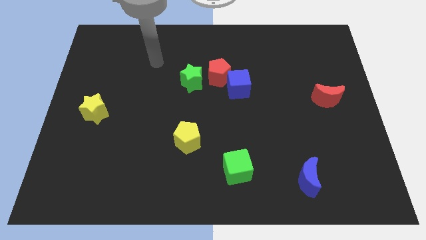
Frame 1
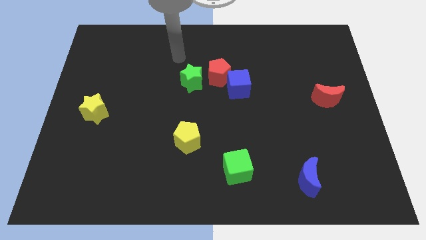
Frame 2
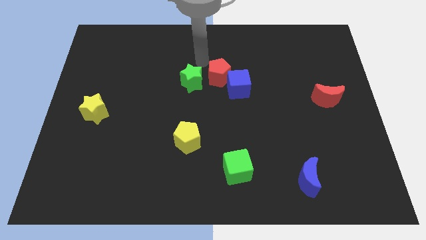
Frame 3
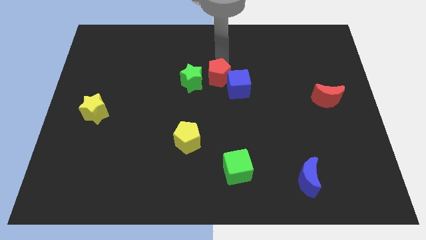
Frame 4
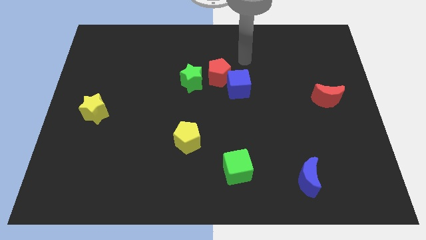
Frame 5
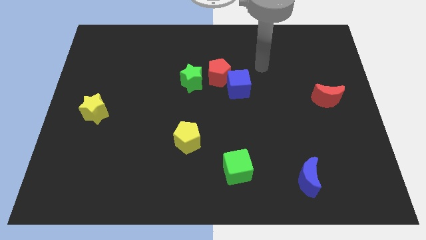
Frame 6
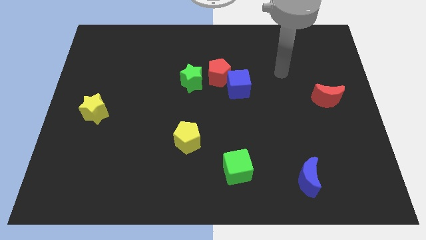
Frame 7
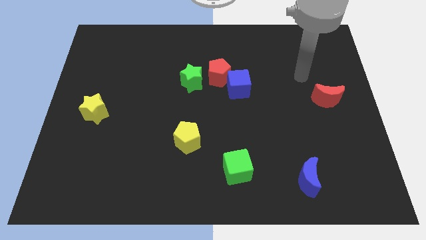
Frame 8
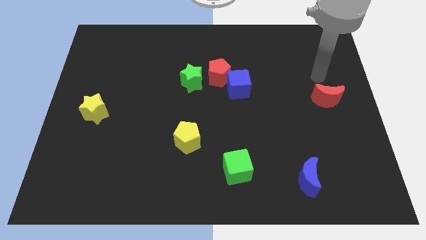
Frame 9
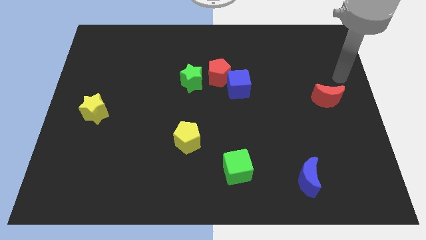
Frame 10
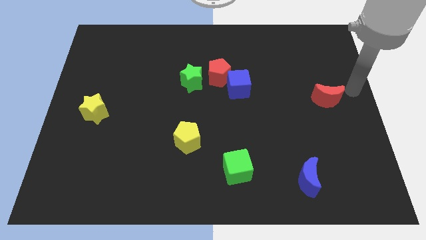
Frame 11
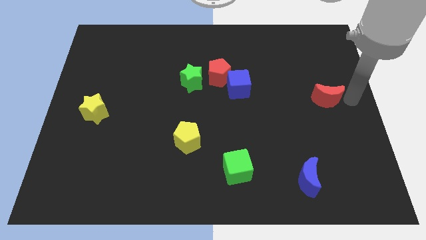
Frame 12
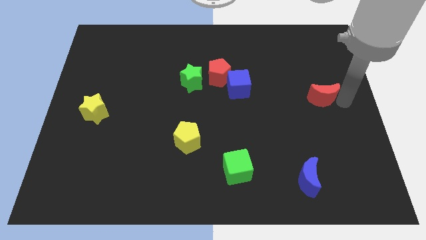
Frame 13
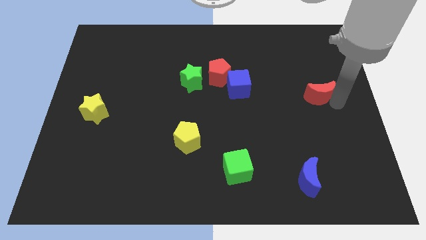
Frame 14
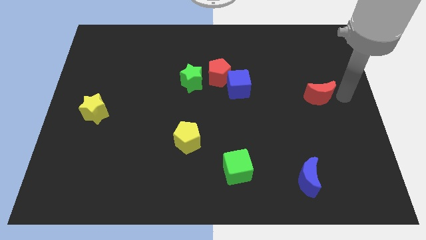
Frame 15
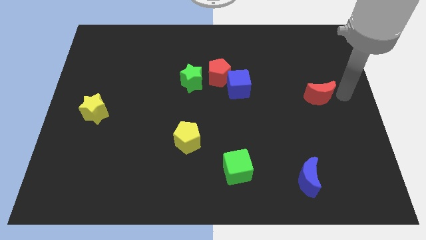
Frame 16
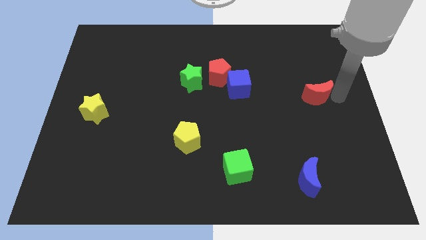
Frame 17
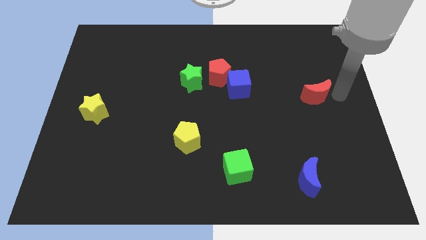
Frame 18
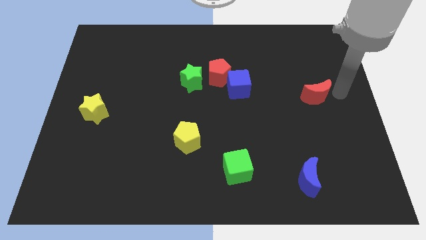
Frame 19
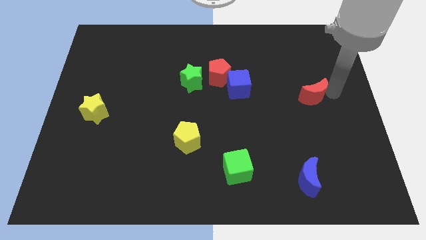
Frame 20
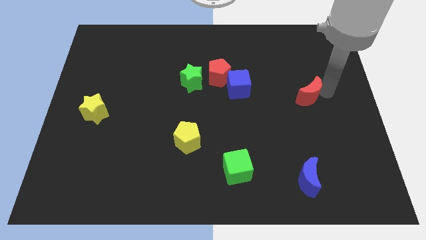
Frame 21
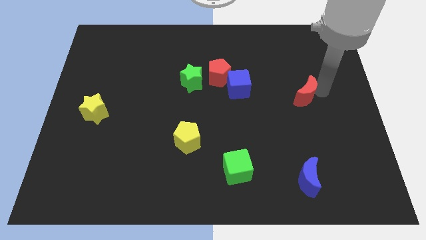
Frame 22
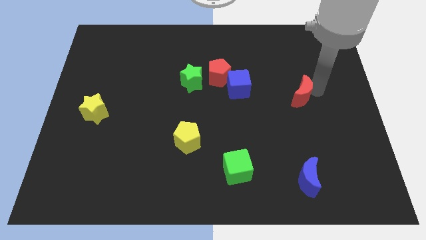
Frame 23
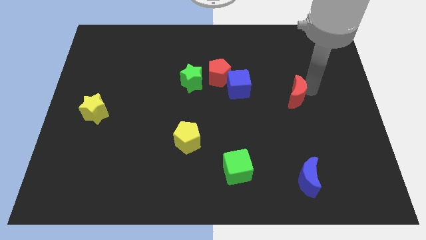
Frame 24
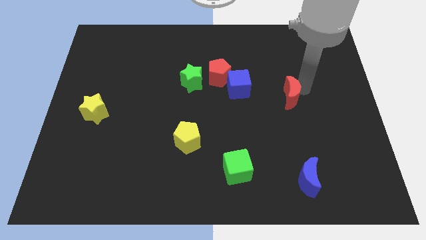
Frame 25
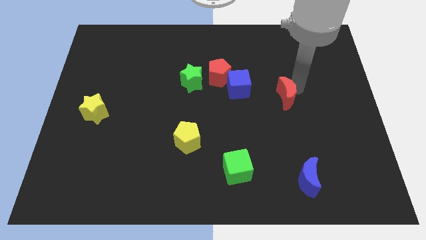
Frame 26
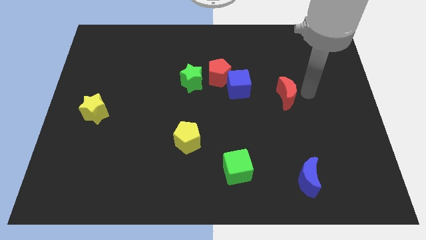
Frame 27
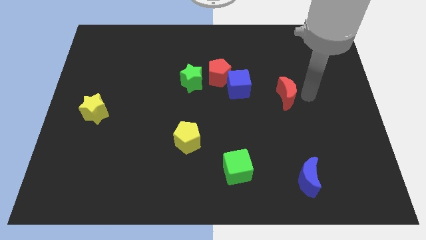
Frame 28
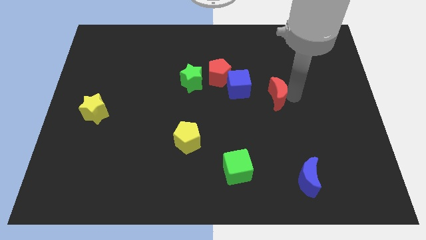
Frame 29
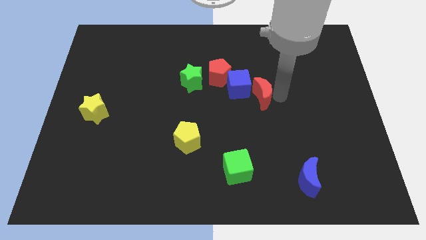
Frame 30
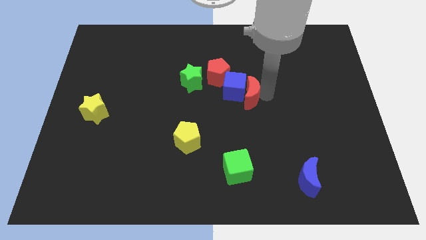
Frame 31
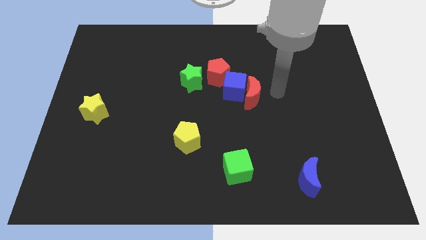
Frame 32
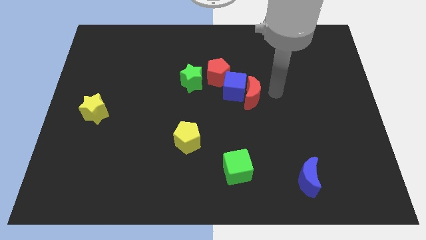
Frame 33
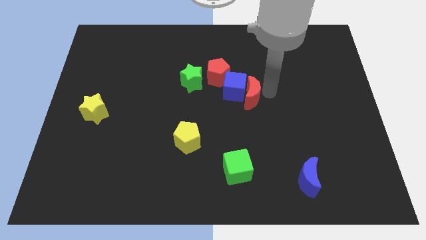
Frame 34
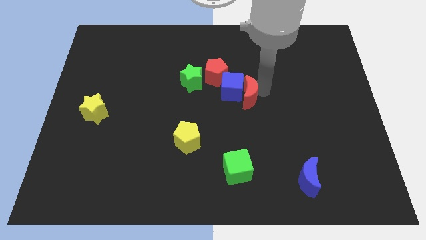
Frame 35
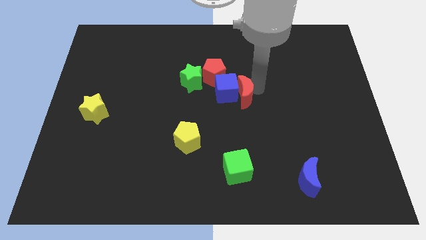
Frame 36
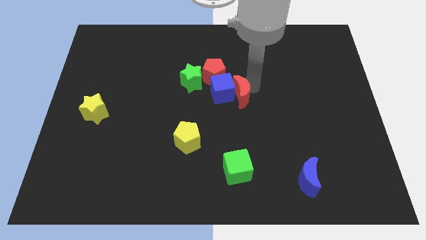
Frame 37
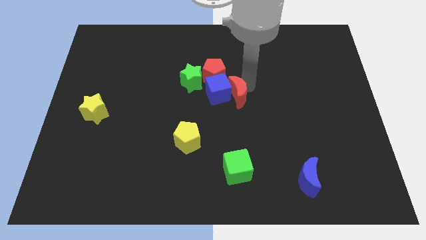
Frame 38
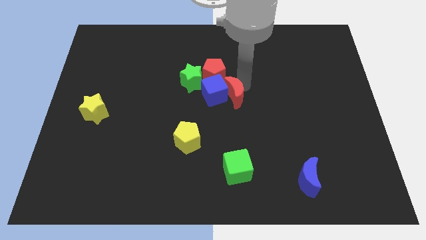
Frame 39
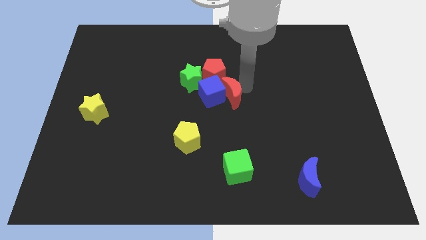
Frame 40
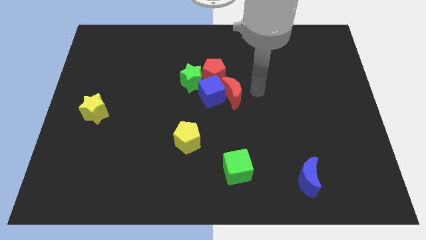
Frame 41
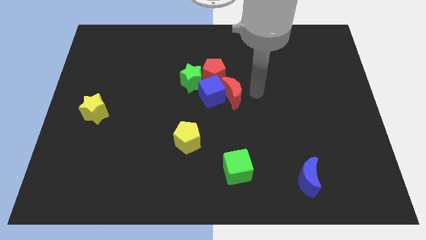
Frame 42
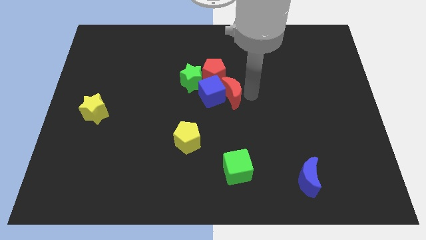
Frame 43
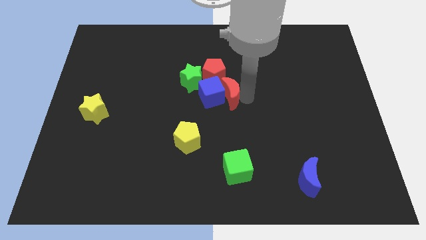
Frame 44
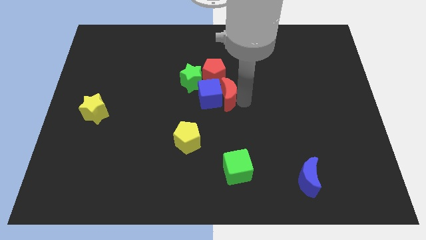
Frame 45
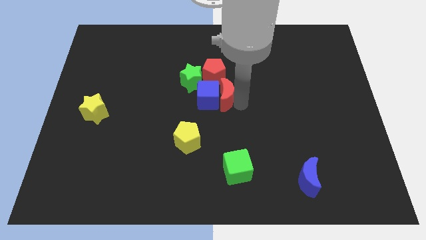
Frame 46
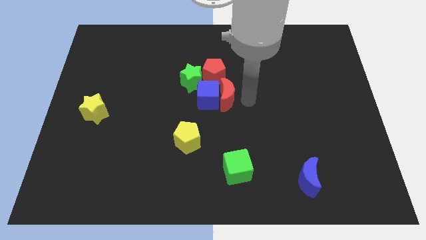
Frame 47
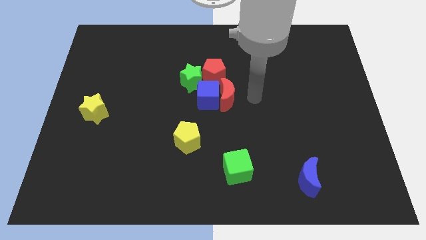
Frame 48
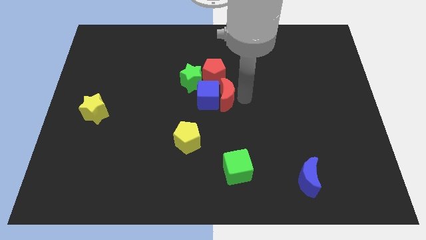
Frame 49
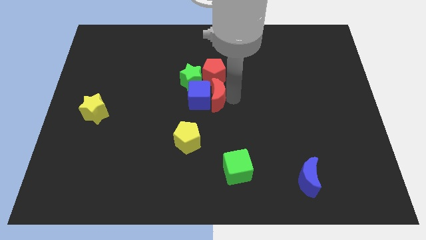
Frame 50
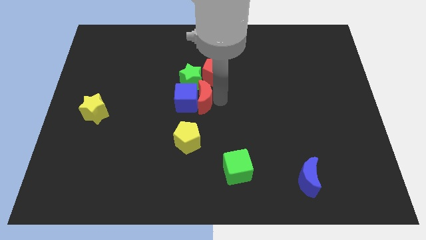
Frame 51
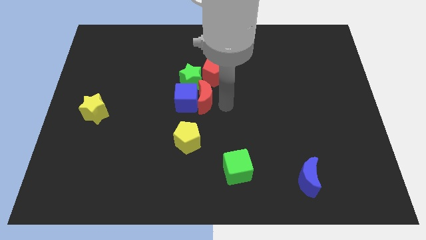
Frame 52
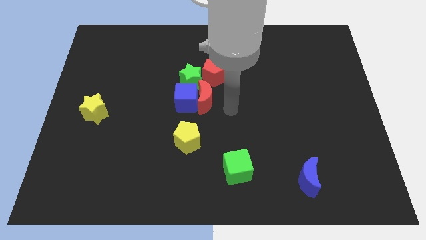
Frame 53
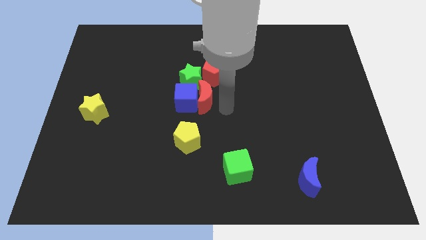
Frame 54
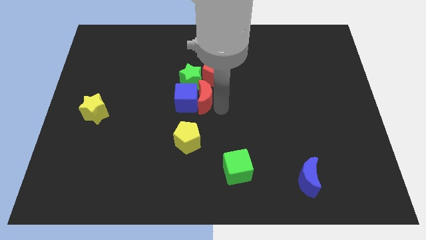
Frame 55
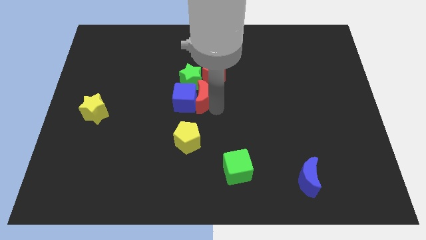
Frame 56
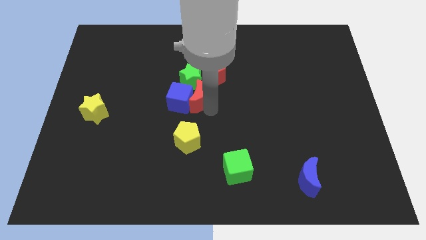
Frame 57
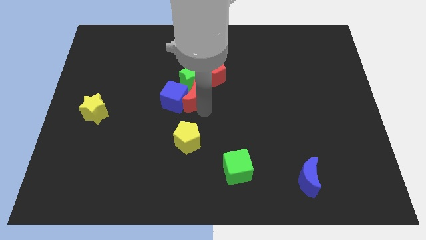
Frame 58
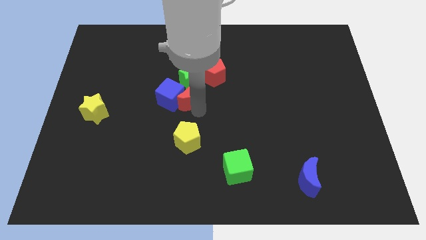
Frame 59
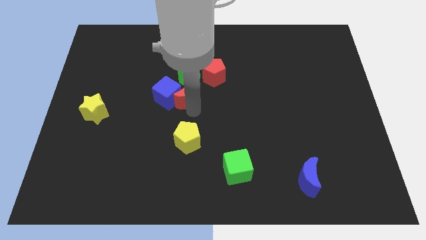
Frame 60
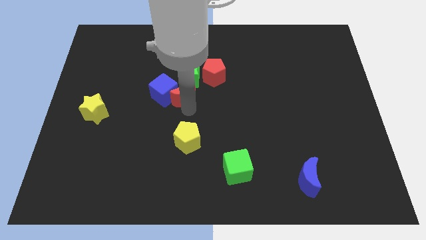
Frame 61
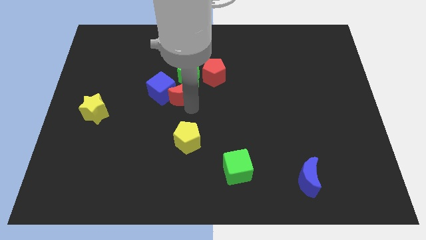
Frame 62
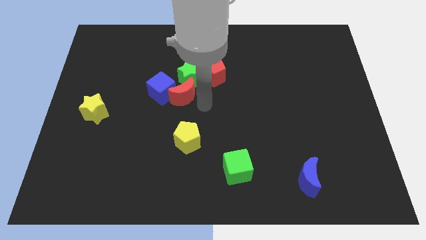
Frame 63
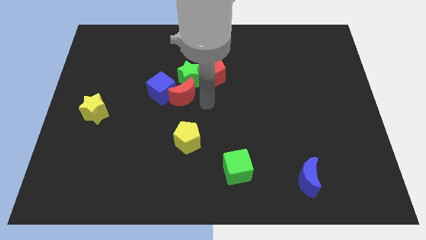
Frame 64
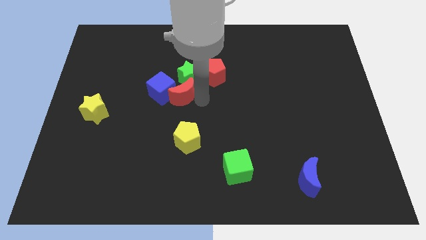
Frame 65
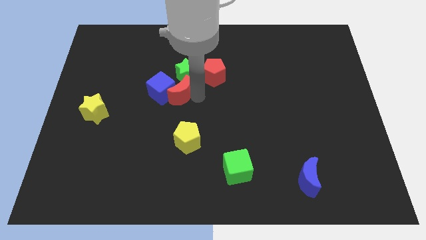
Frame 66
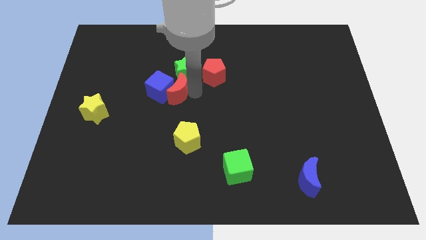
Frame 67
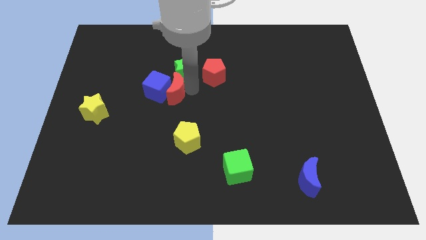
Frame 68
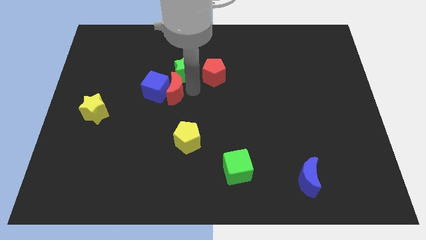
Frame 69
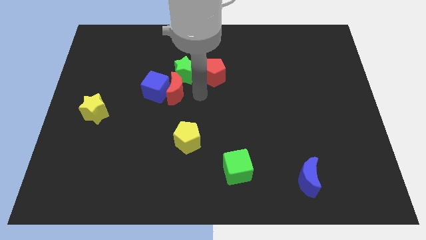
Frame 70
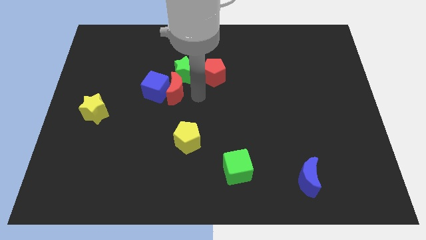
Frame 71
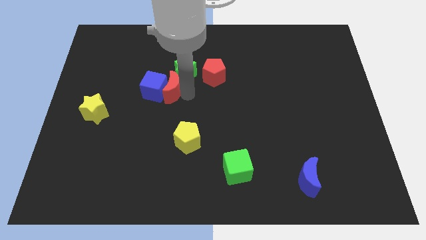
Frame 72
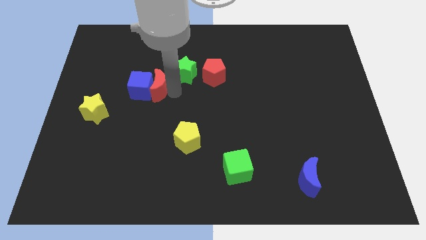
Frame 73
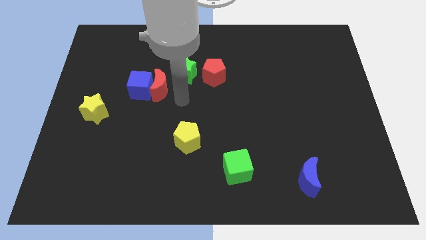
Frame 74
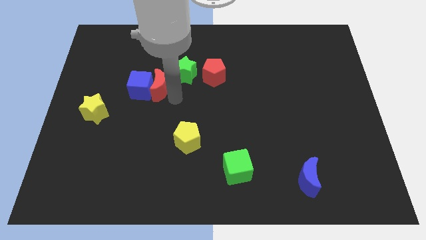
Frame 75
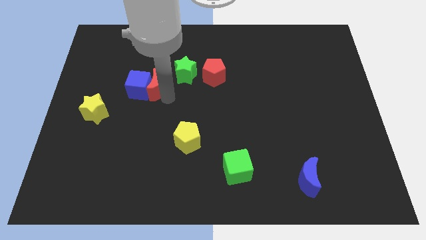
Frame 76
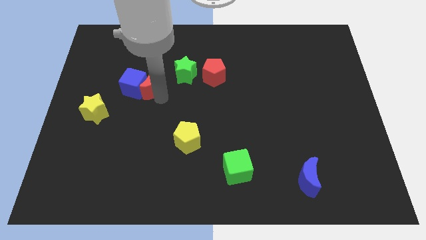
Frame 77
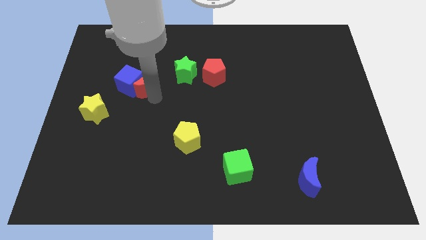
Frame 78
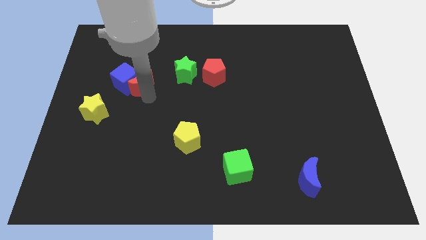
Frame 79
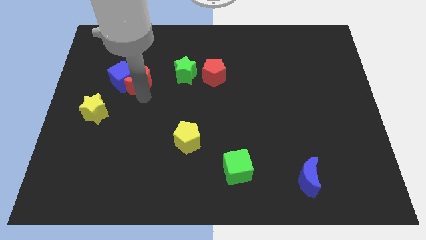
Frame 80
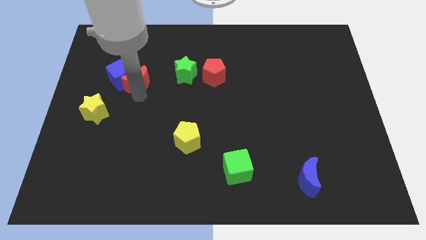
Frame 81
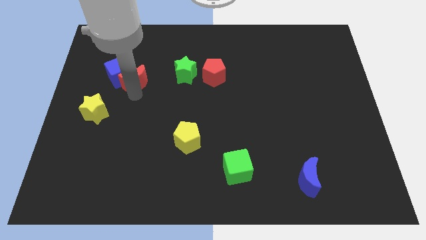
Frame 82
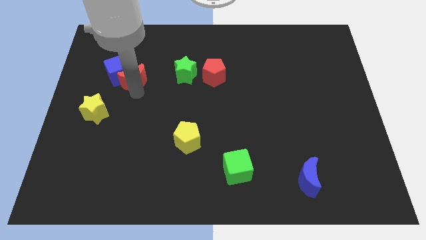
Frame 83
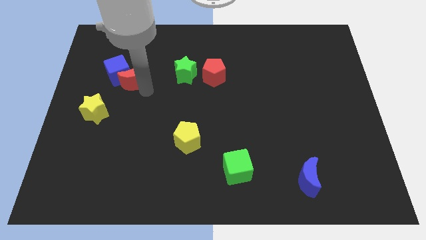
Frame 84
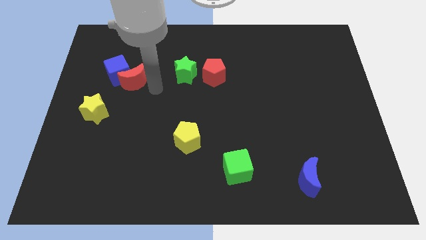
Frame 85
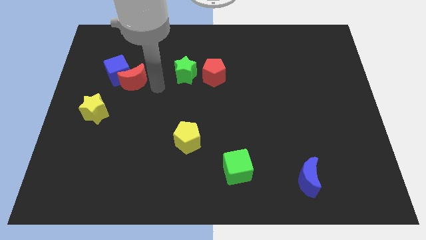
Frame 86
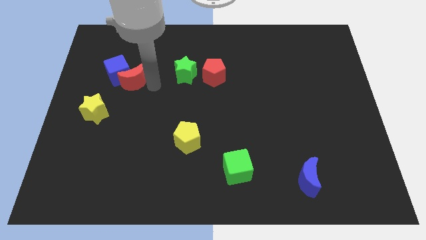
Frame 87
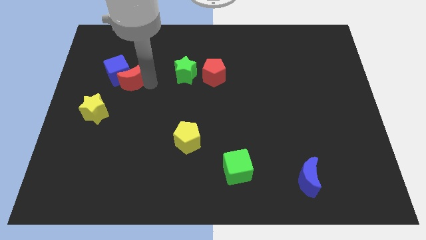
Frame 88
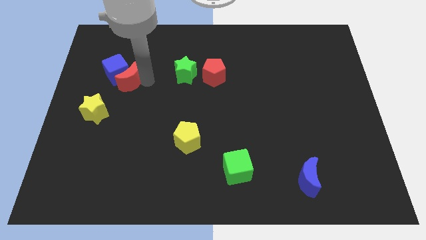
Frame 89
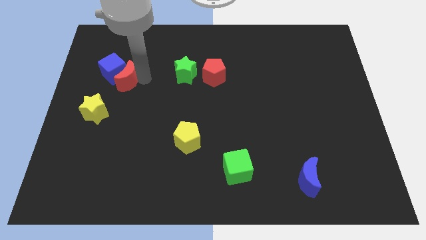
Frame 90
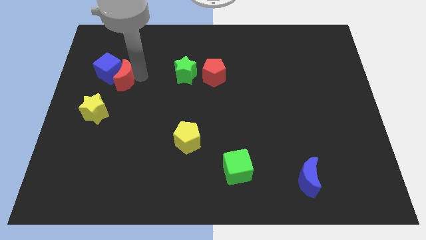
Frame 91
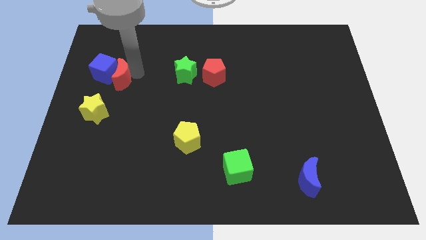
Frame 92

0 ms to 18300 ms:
push the red moon above the yellow star
